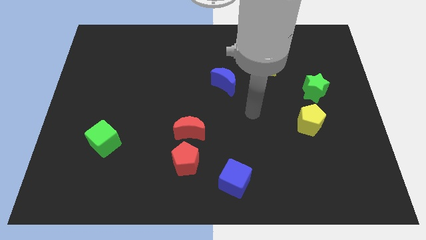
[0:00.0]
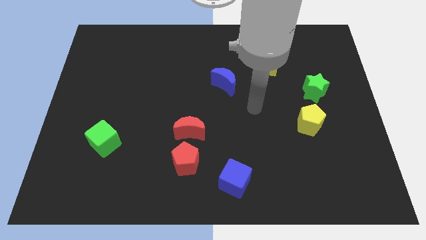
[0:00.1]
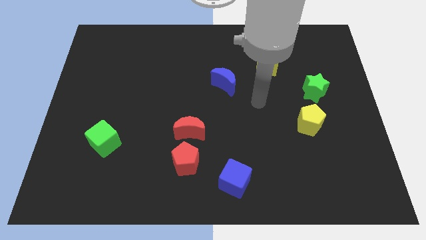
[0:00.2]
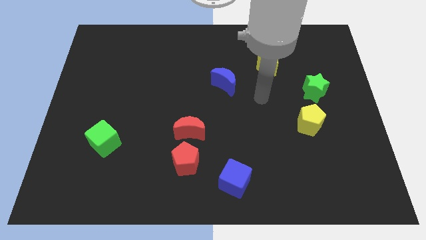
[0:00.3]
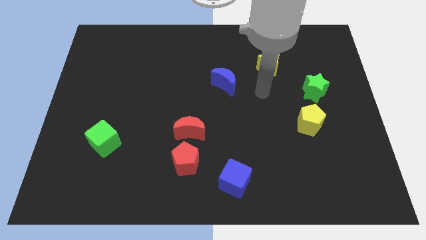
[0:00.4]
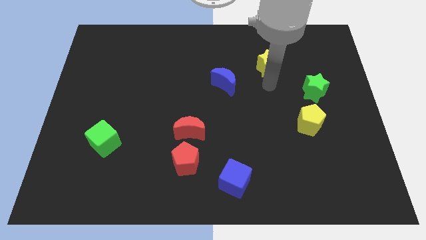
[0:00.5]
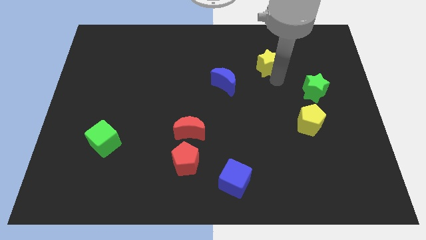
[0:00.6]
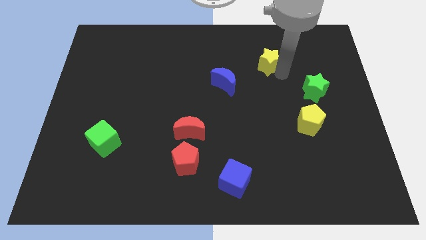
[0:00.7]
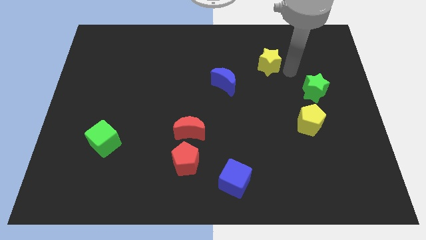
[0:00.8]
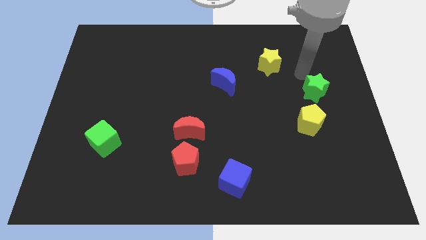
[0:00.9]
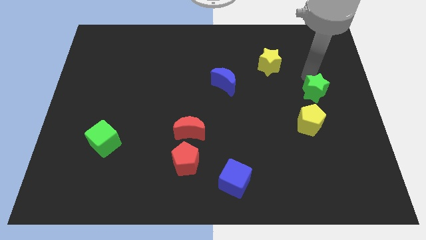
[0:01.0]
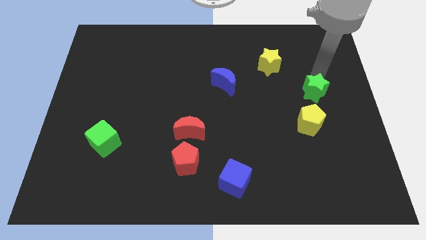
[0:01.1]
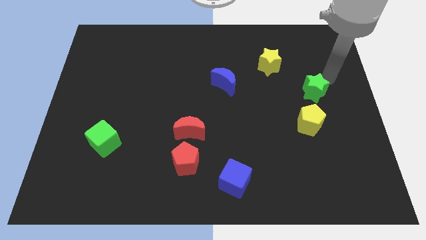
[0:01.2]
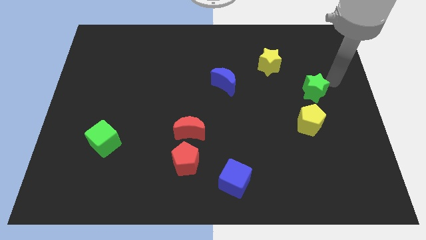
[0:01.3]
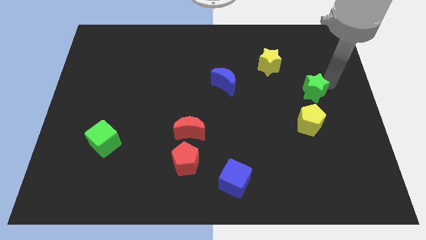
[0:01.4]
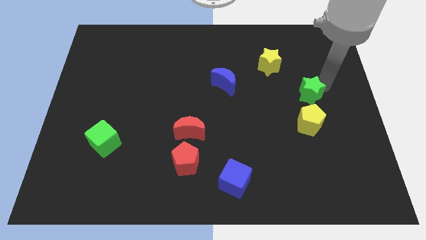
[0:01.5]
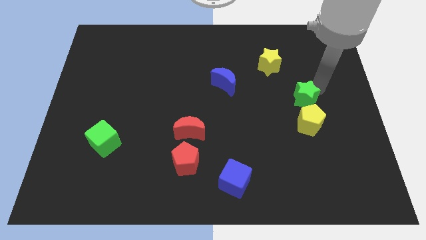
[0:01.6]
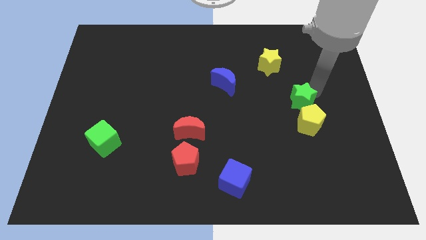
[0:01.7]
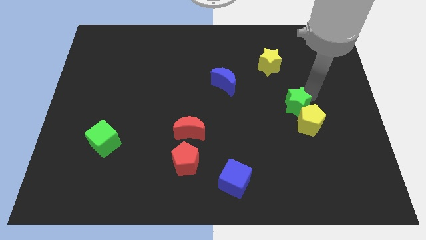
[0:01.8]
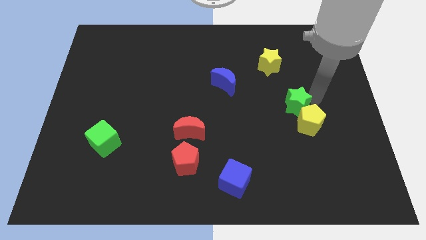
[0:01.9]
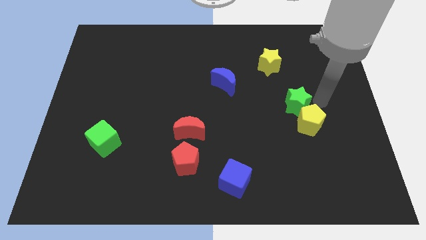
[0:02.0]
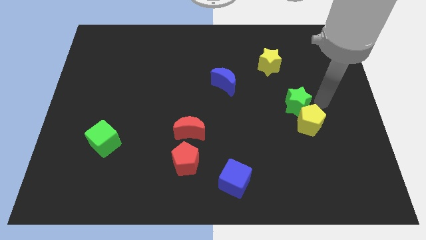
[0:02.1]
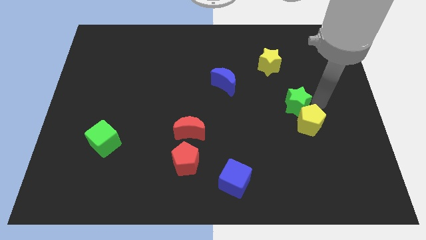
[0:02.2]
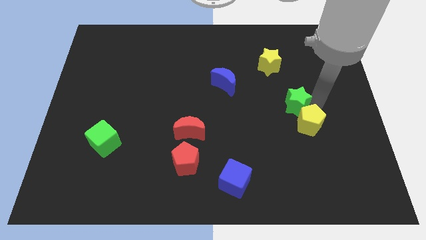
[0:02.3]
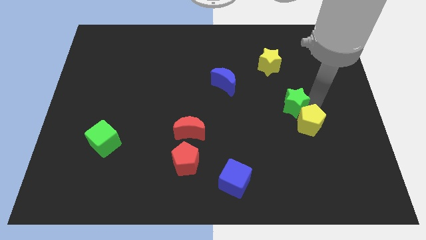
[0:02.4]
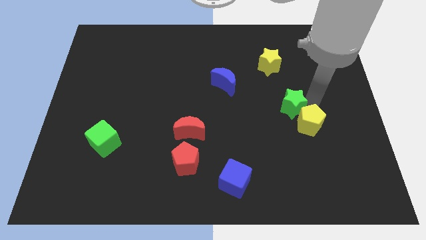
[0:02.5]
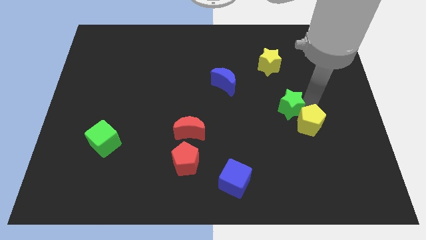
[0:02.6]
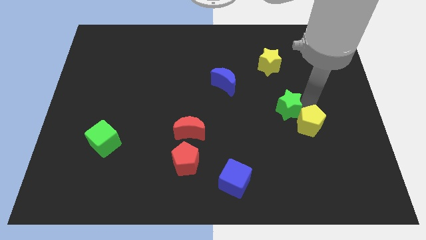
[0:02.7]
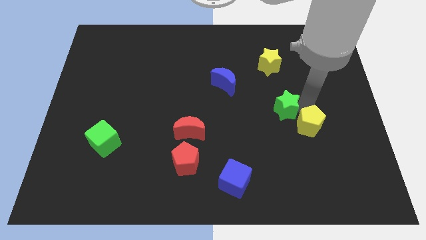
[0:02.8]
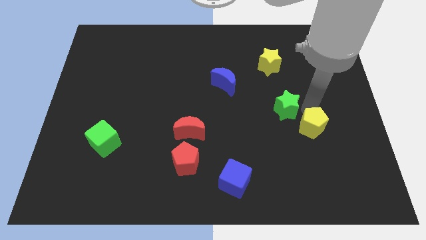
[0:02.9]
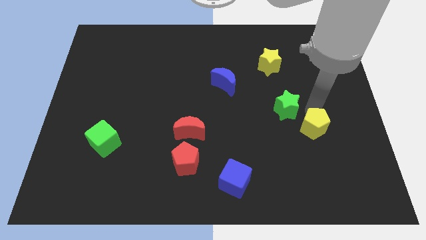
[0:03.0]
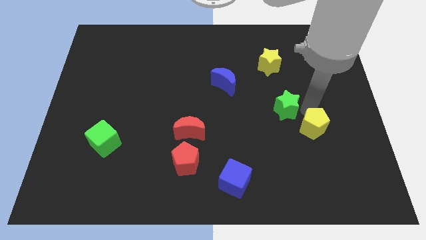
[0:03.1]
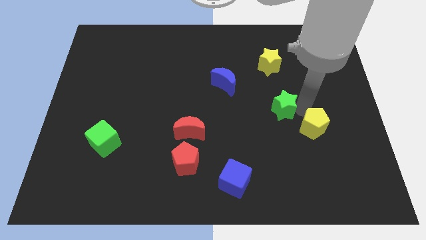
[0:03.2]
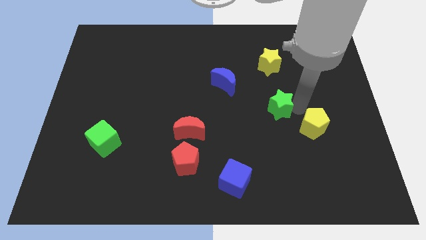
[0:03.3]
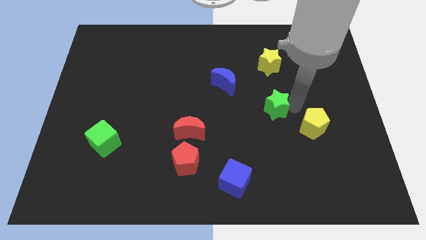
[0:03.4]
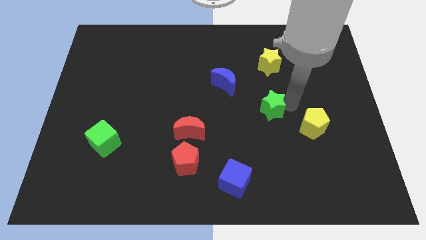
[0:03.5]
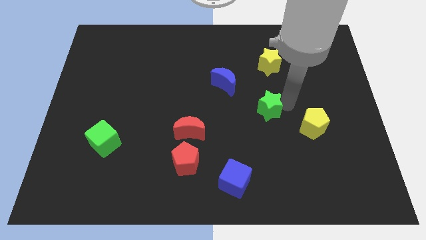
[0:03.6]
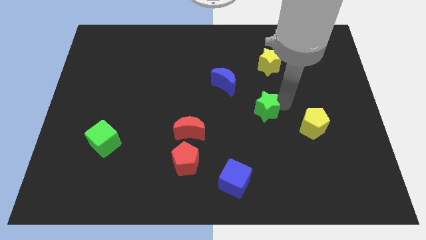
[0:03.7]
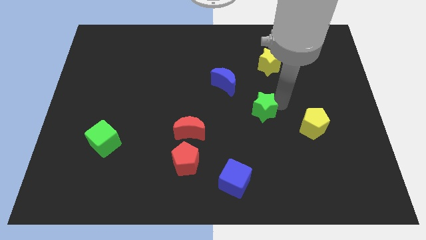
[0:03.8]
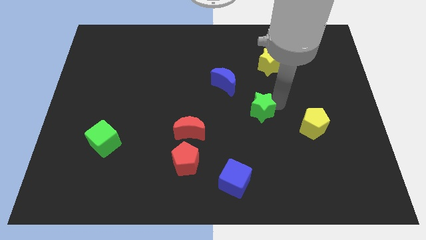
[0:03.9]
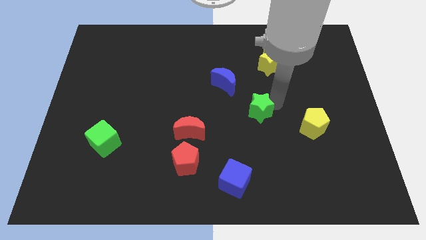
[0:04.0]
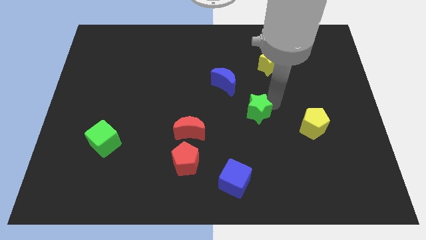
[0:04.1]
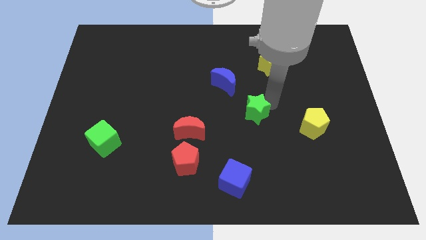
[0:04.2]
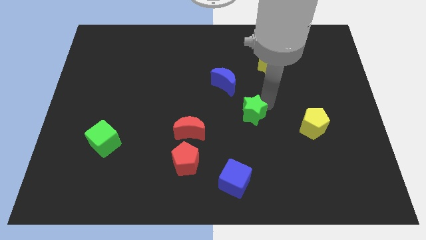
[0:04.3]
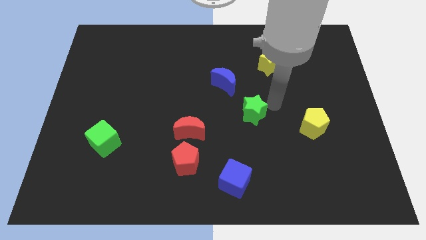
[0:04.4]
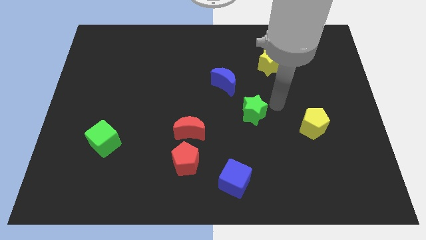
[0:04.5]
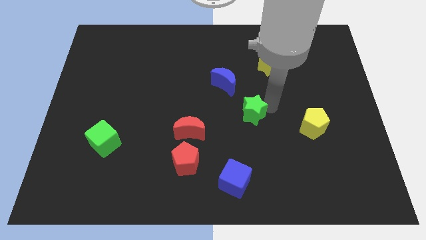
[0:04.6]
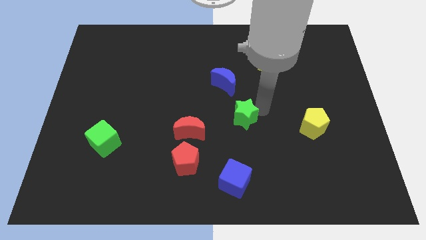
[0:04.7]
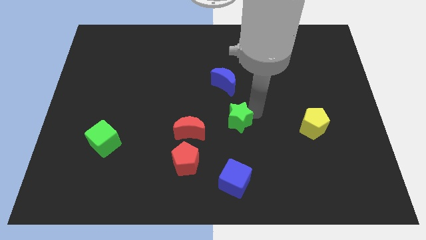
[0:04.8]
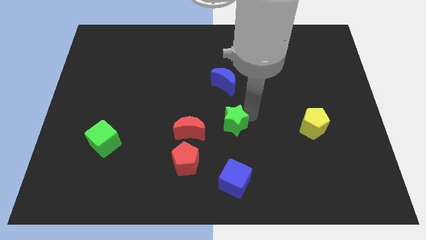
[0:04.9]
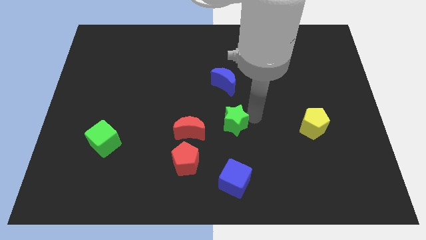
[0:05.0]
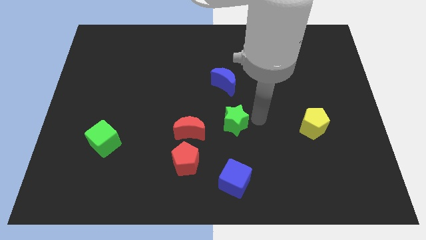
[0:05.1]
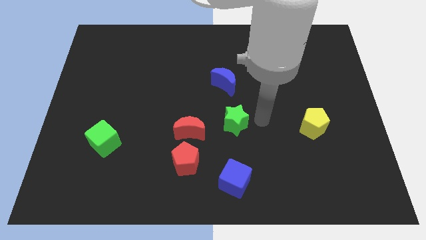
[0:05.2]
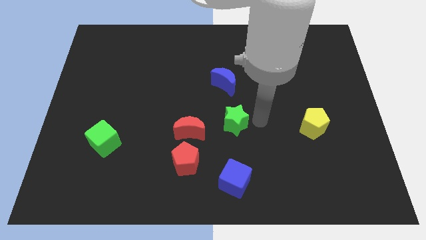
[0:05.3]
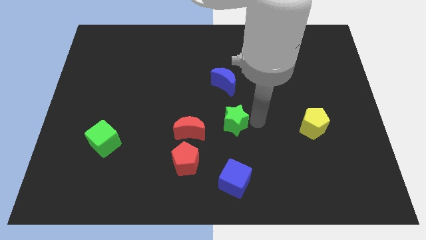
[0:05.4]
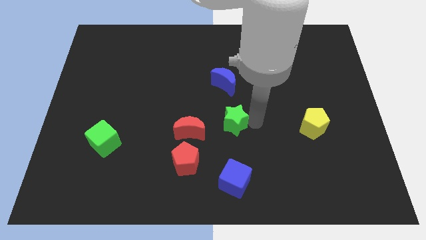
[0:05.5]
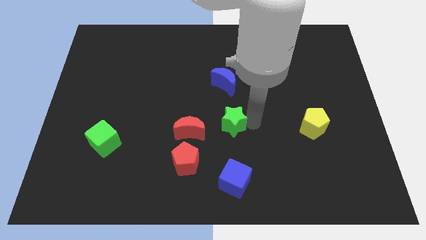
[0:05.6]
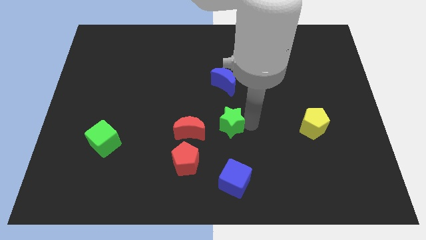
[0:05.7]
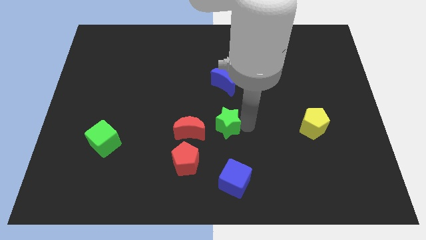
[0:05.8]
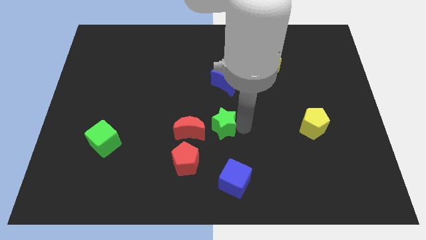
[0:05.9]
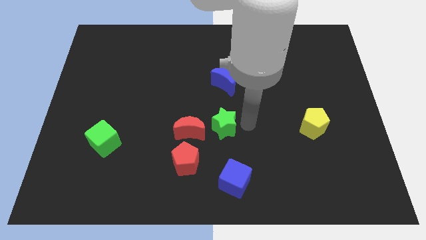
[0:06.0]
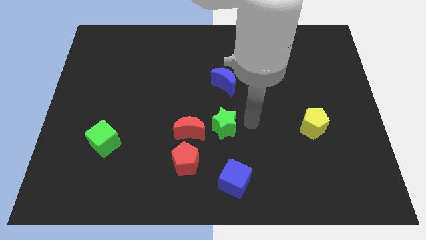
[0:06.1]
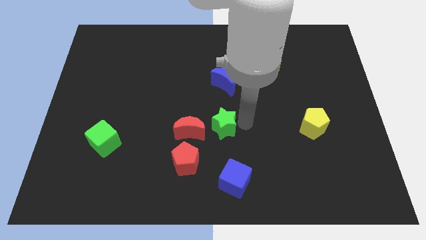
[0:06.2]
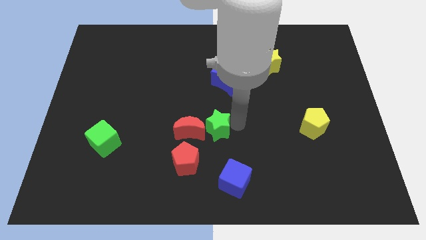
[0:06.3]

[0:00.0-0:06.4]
slide the green star close to the red moon

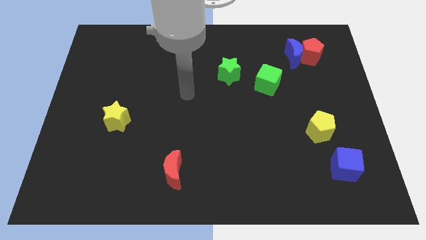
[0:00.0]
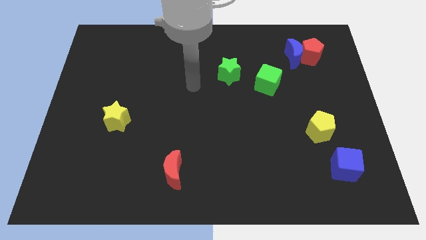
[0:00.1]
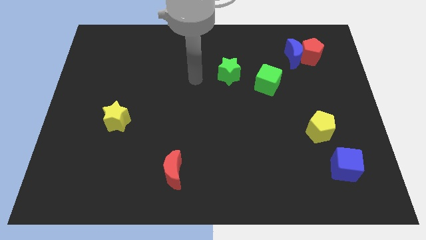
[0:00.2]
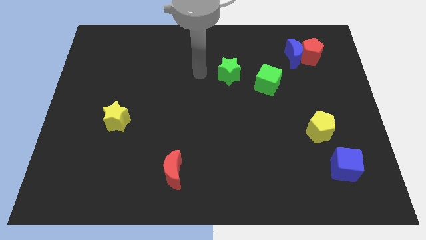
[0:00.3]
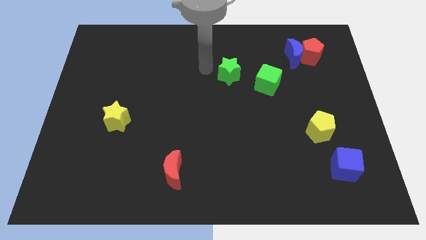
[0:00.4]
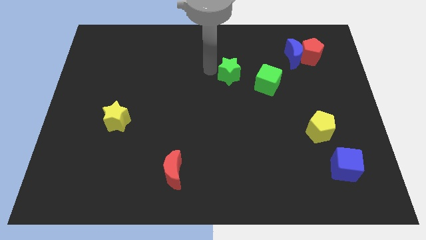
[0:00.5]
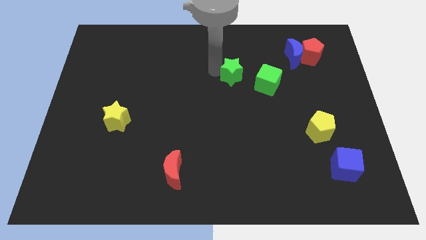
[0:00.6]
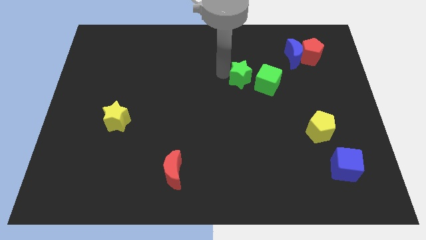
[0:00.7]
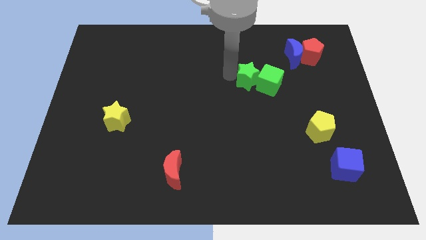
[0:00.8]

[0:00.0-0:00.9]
put the green star close to the green cube
